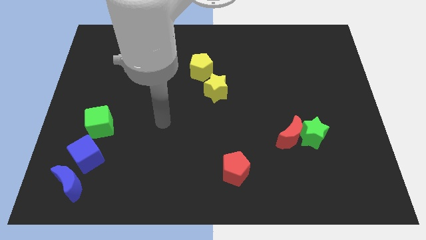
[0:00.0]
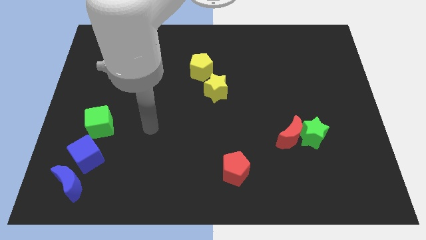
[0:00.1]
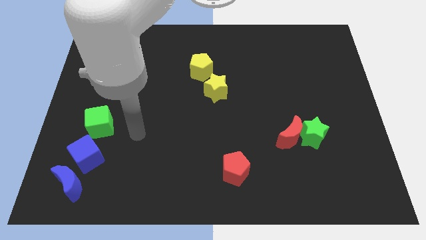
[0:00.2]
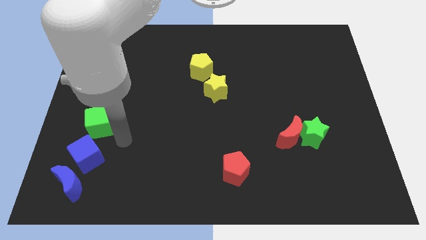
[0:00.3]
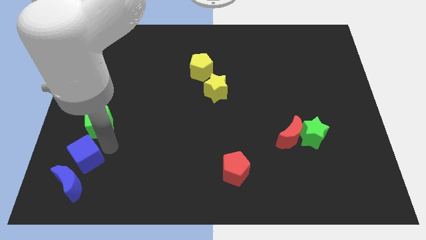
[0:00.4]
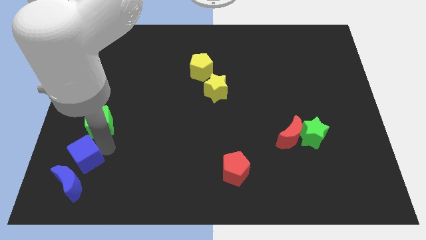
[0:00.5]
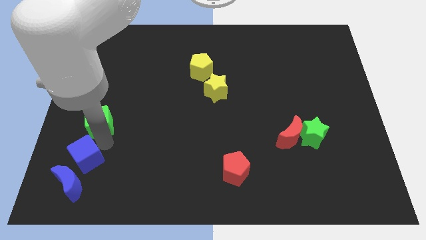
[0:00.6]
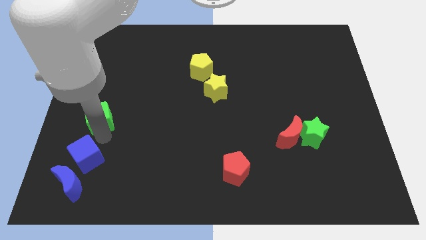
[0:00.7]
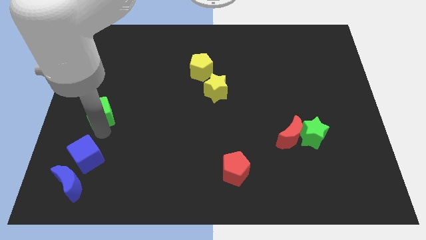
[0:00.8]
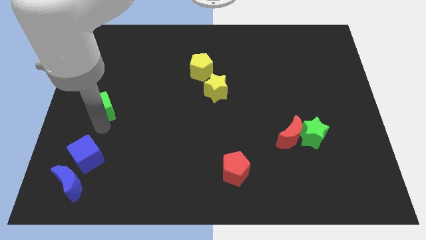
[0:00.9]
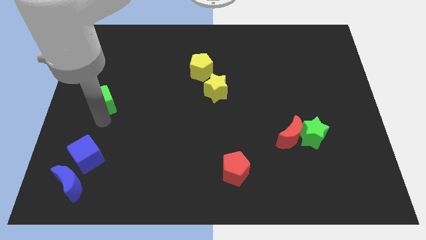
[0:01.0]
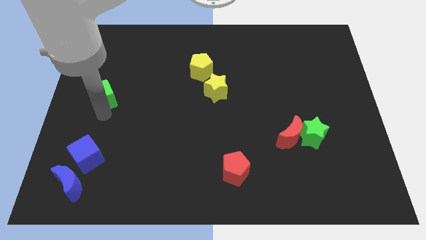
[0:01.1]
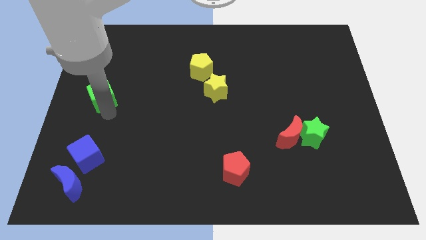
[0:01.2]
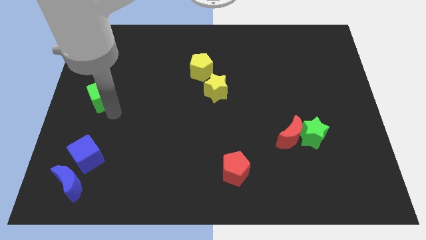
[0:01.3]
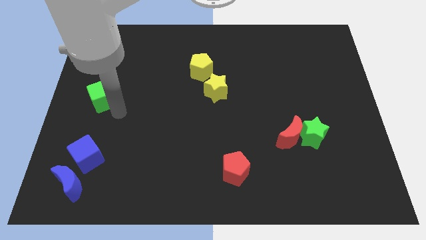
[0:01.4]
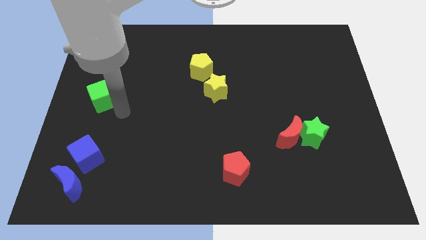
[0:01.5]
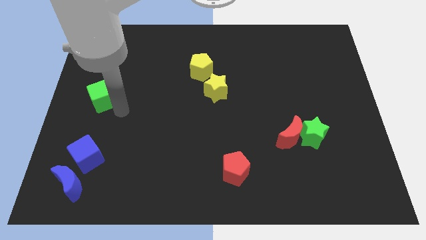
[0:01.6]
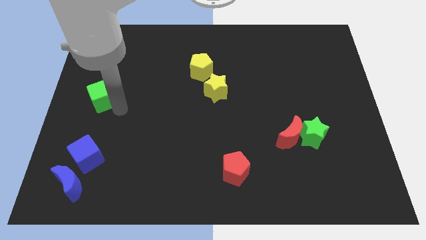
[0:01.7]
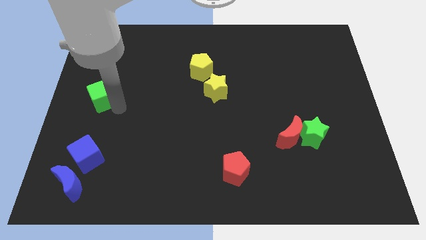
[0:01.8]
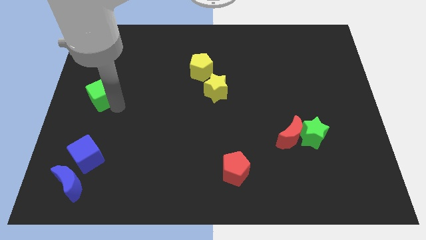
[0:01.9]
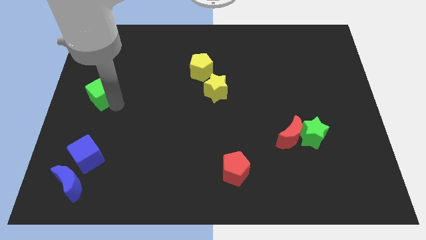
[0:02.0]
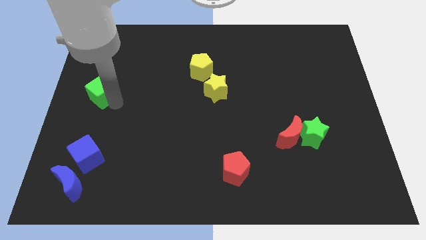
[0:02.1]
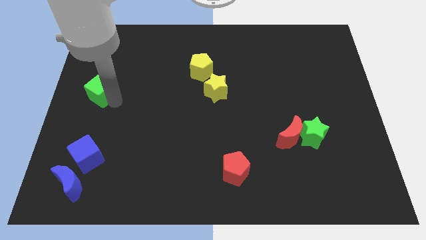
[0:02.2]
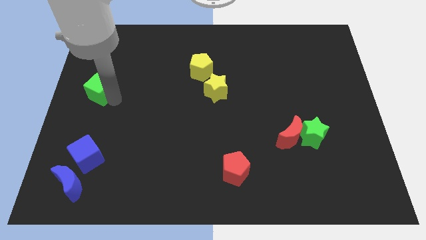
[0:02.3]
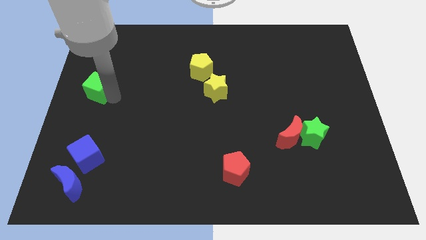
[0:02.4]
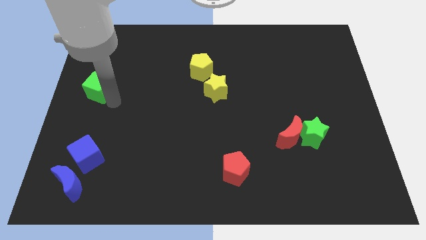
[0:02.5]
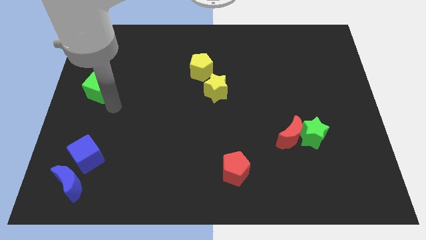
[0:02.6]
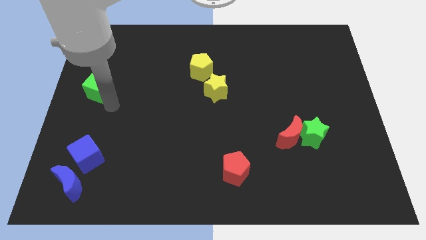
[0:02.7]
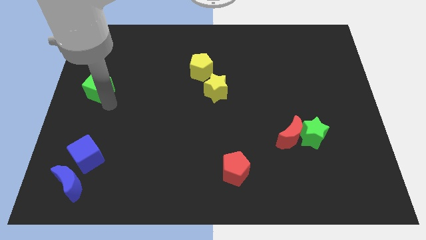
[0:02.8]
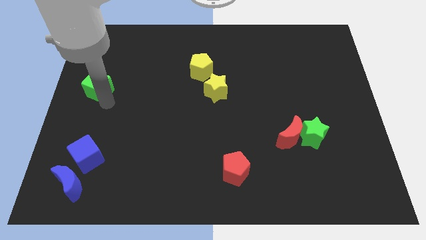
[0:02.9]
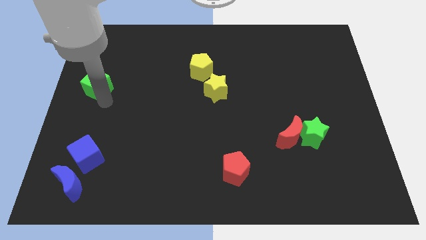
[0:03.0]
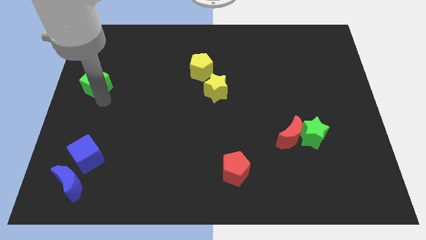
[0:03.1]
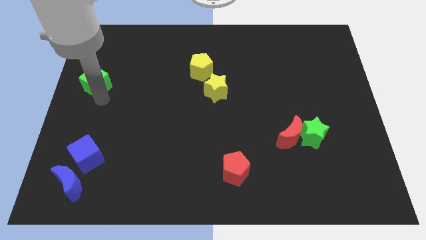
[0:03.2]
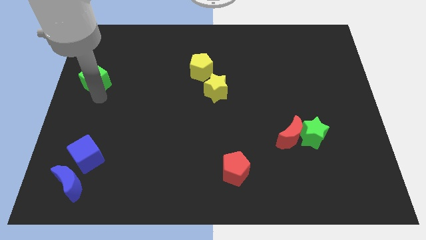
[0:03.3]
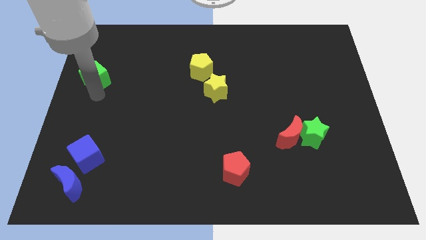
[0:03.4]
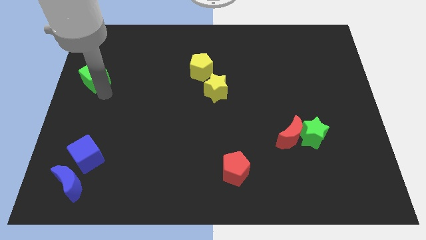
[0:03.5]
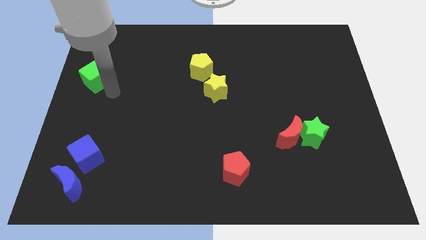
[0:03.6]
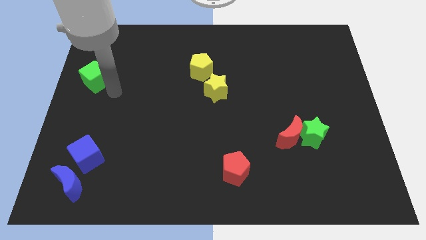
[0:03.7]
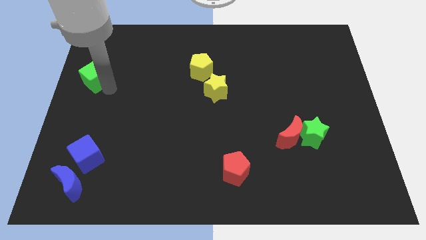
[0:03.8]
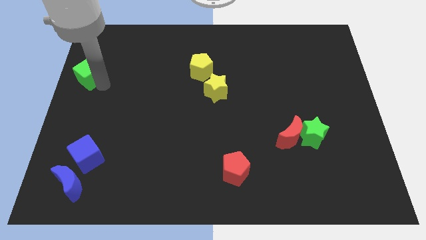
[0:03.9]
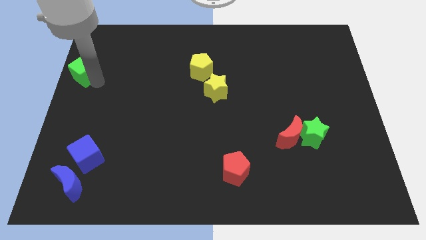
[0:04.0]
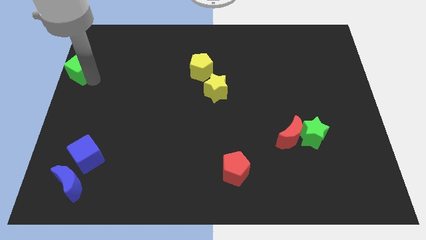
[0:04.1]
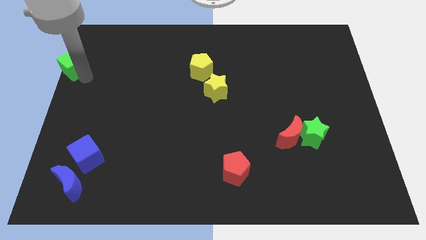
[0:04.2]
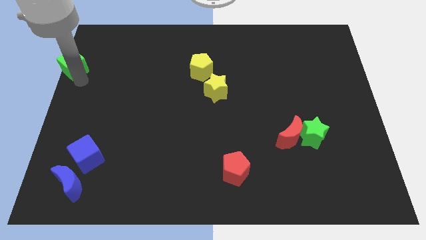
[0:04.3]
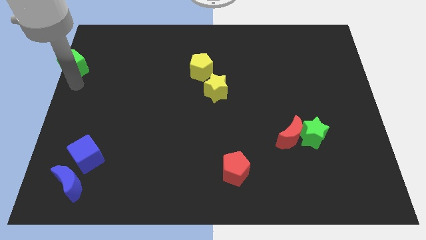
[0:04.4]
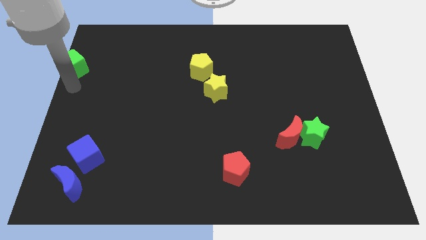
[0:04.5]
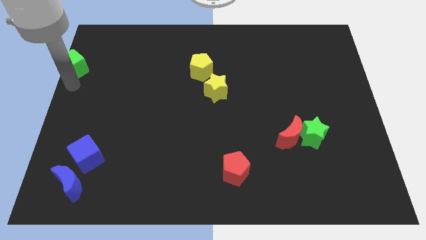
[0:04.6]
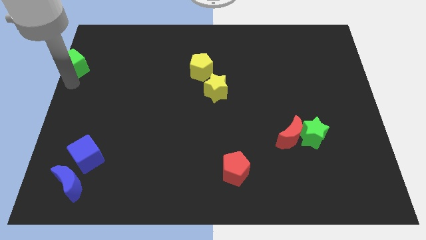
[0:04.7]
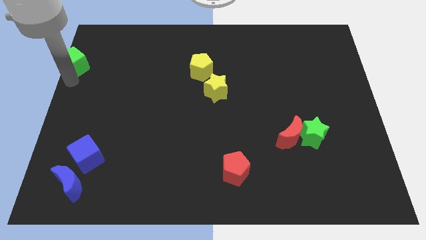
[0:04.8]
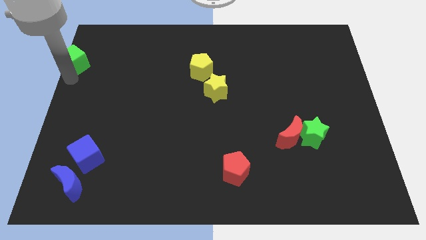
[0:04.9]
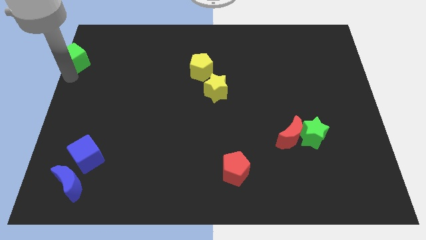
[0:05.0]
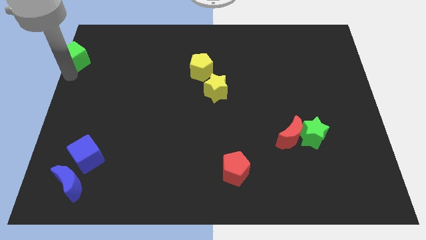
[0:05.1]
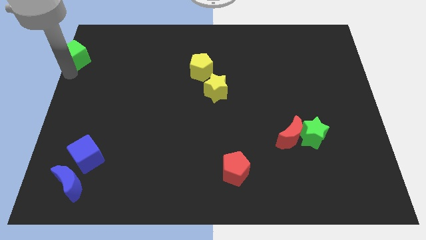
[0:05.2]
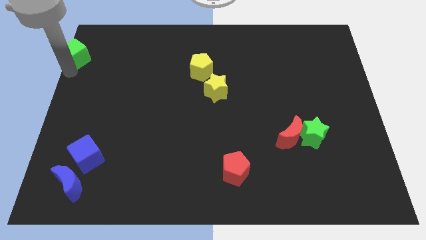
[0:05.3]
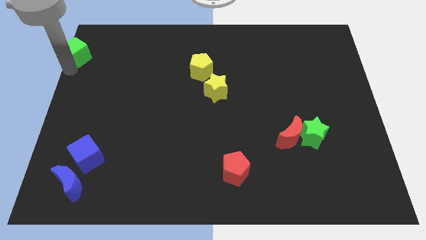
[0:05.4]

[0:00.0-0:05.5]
slide the green cube to the upper left corner

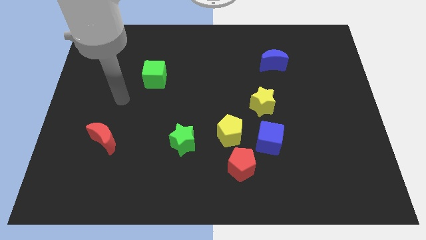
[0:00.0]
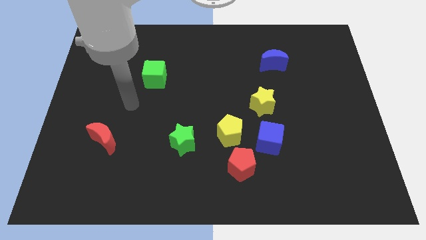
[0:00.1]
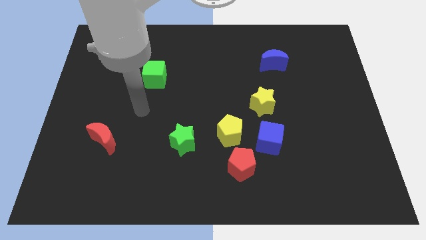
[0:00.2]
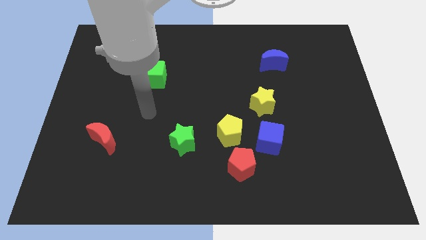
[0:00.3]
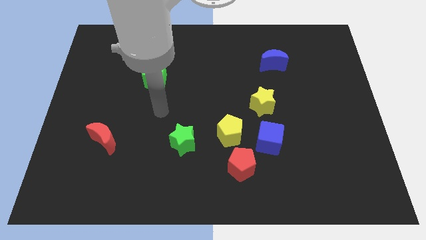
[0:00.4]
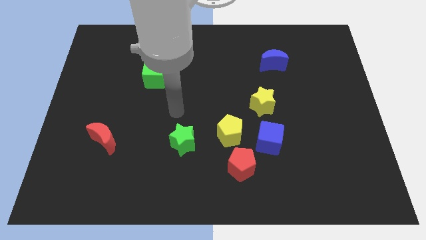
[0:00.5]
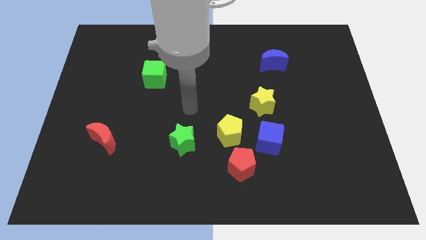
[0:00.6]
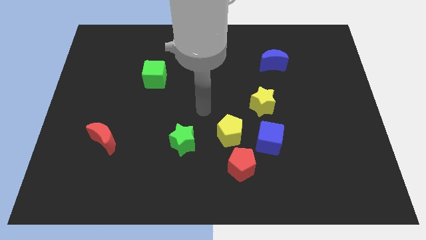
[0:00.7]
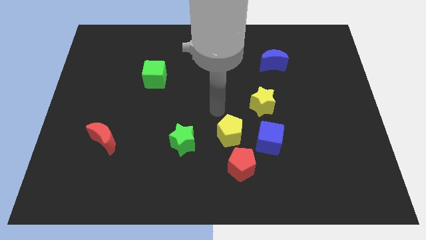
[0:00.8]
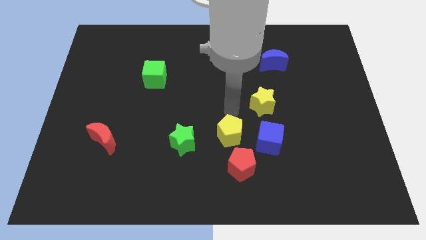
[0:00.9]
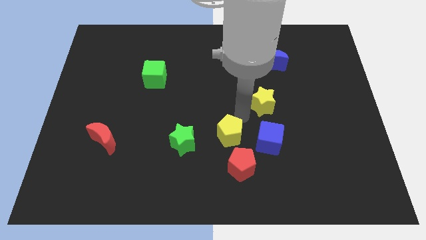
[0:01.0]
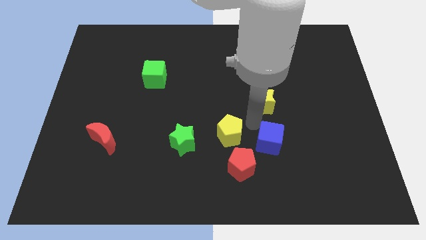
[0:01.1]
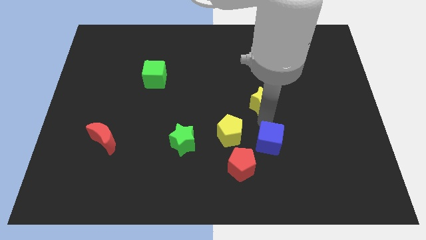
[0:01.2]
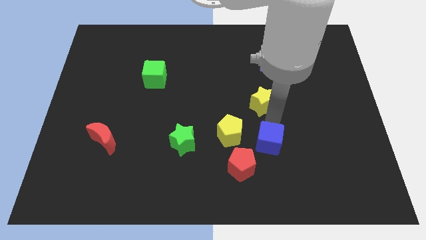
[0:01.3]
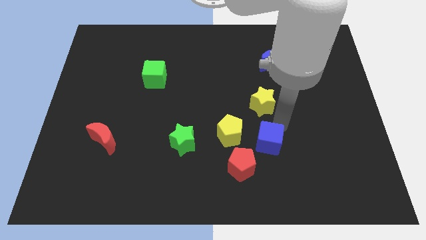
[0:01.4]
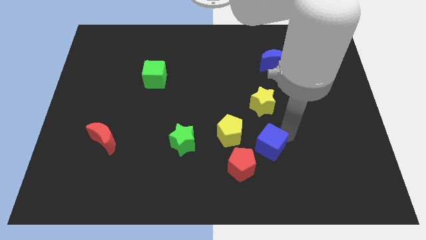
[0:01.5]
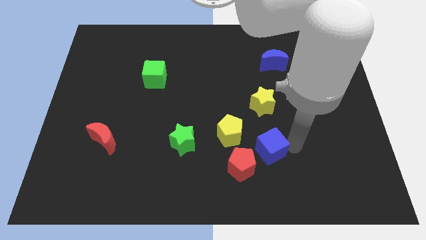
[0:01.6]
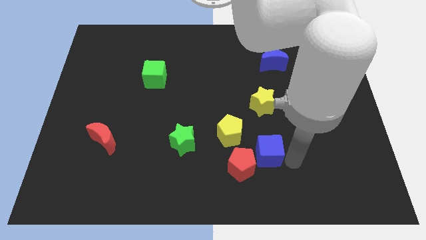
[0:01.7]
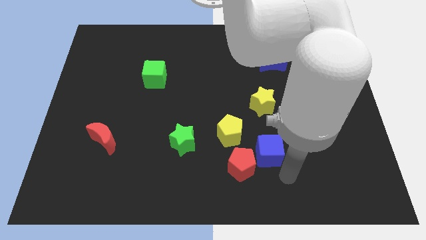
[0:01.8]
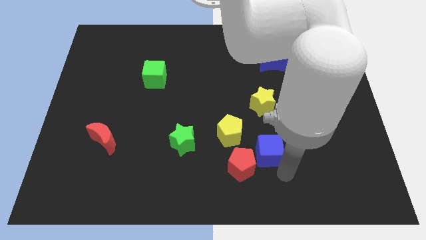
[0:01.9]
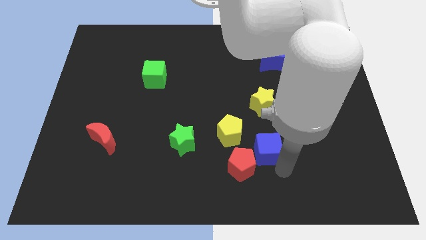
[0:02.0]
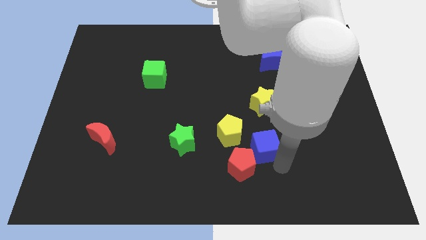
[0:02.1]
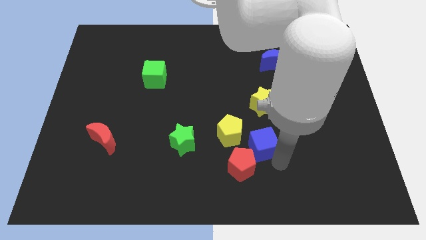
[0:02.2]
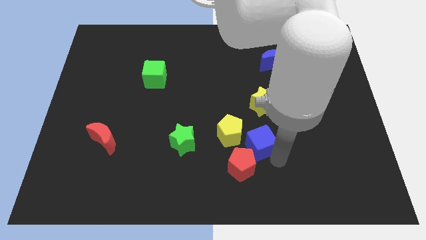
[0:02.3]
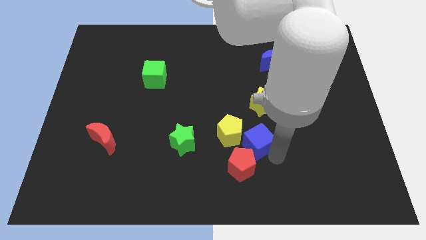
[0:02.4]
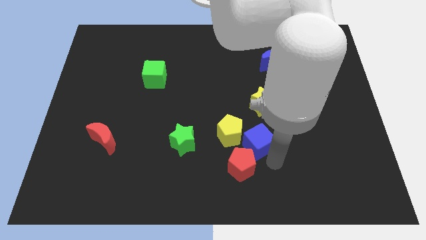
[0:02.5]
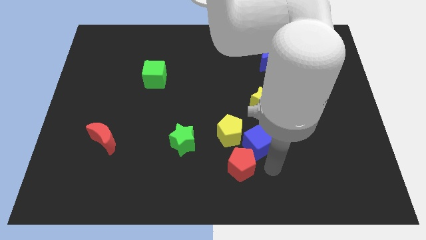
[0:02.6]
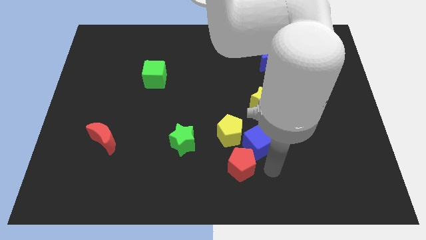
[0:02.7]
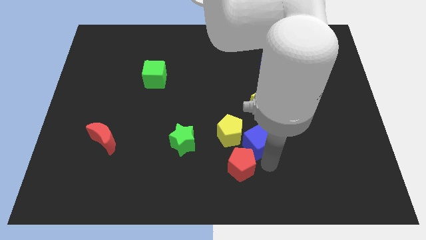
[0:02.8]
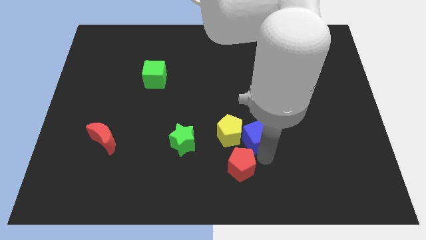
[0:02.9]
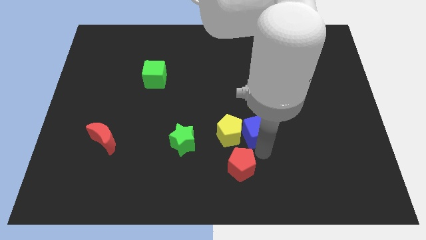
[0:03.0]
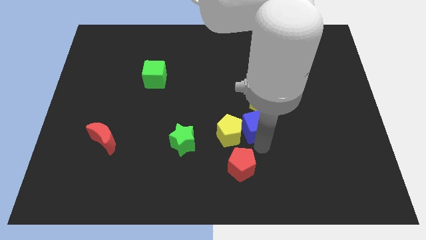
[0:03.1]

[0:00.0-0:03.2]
put the blue cube to the middle
